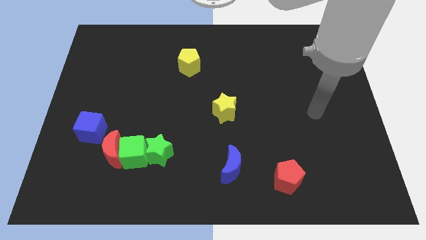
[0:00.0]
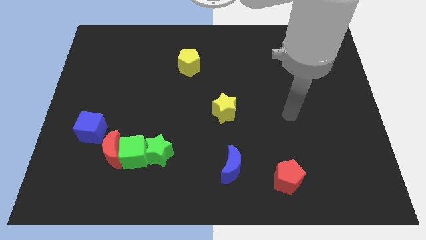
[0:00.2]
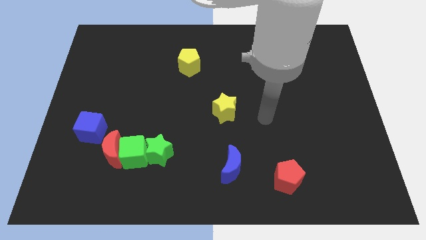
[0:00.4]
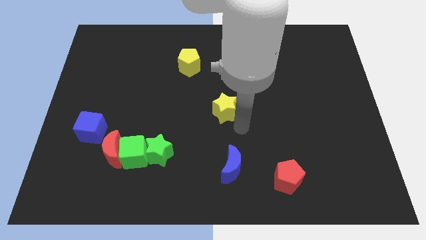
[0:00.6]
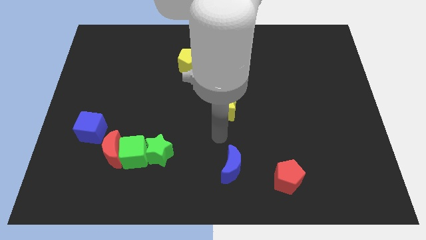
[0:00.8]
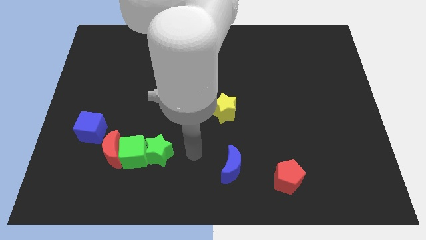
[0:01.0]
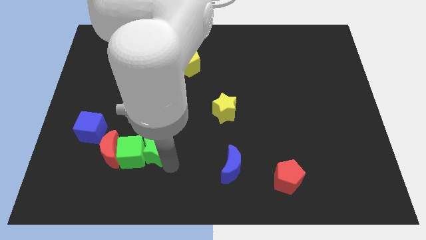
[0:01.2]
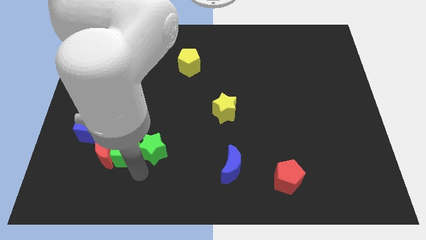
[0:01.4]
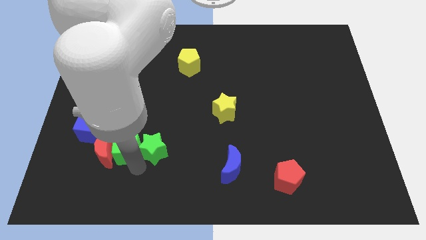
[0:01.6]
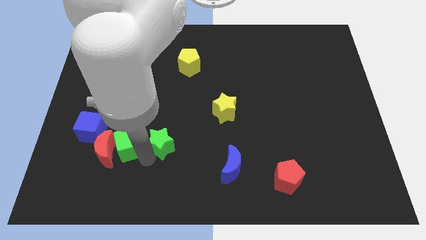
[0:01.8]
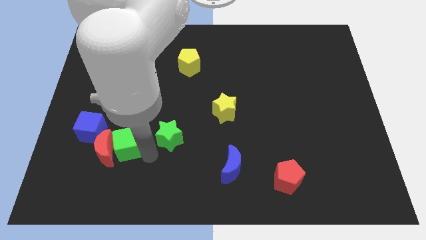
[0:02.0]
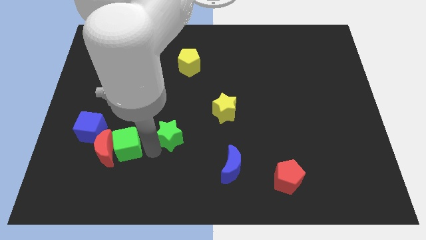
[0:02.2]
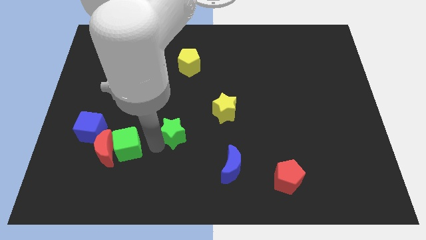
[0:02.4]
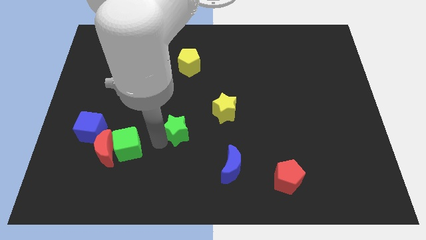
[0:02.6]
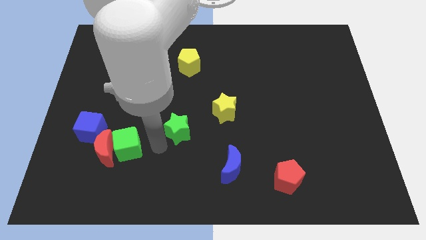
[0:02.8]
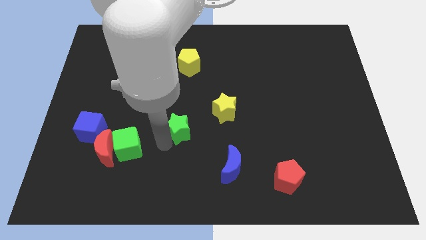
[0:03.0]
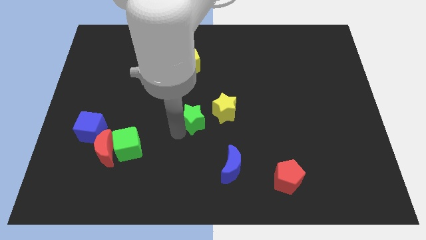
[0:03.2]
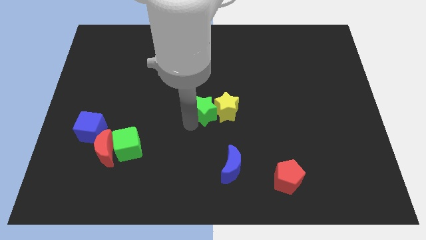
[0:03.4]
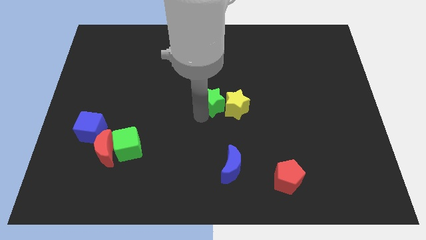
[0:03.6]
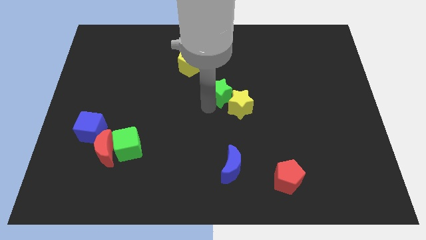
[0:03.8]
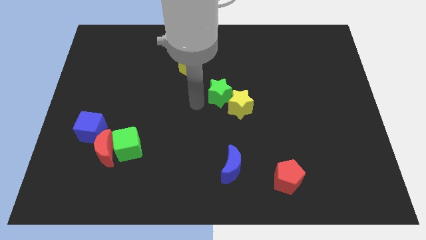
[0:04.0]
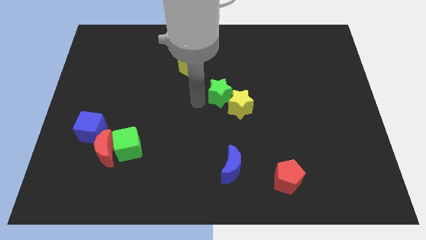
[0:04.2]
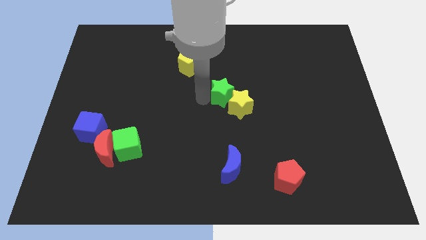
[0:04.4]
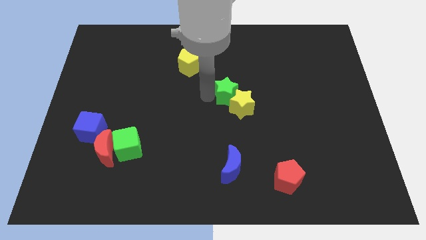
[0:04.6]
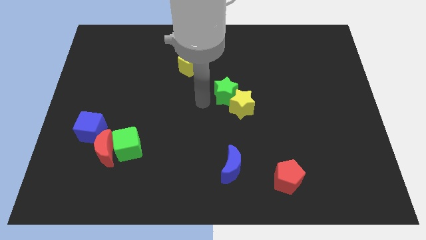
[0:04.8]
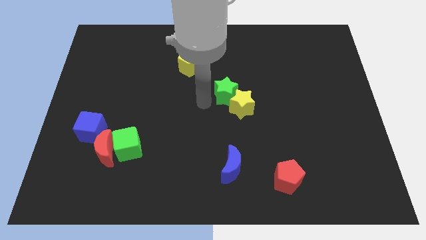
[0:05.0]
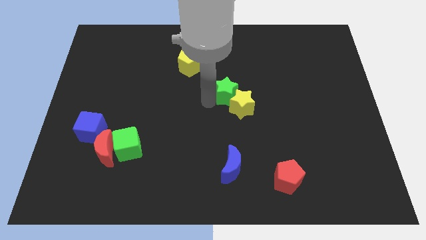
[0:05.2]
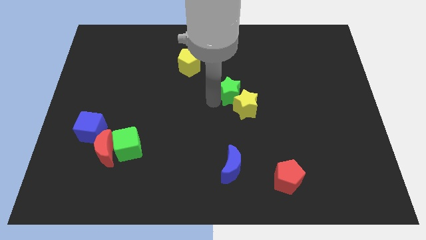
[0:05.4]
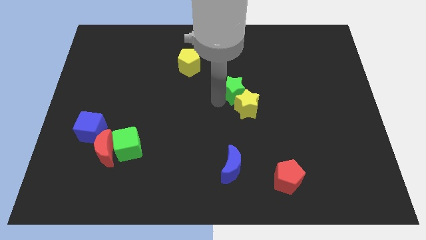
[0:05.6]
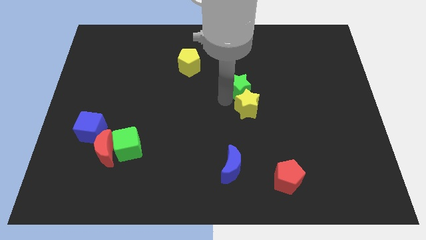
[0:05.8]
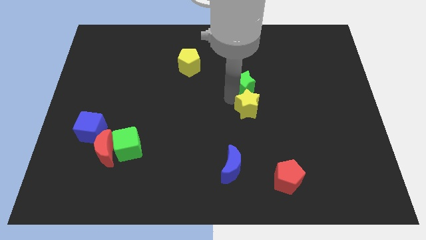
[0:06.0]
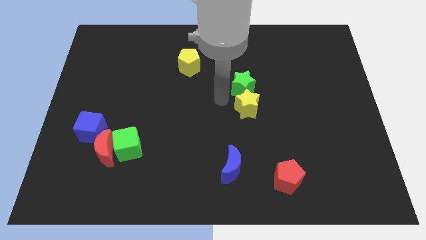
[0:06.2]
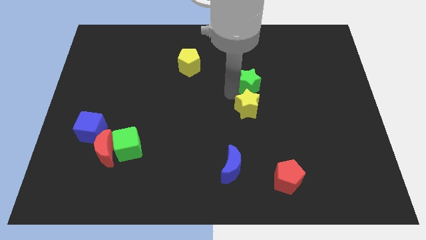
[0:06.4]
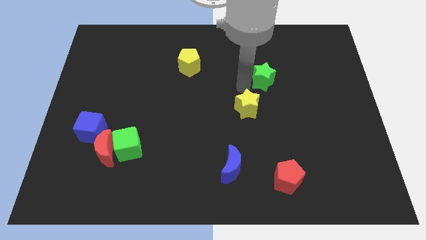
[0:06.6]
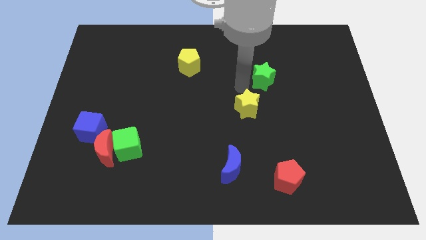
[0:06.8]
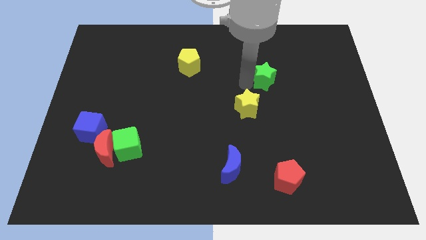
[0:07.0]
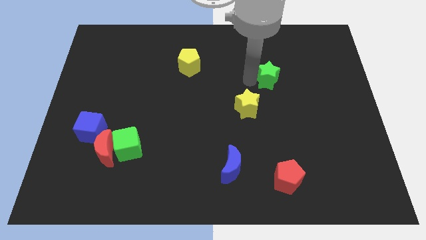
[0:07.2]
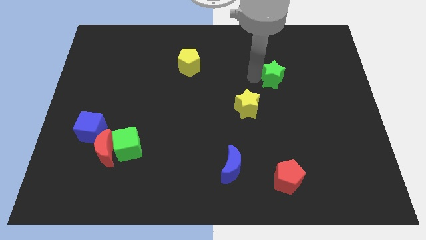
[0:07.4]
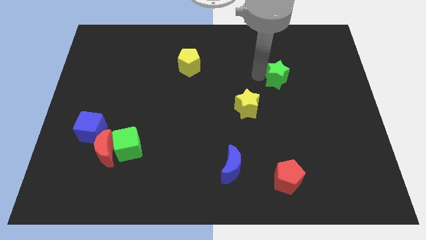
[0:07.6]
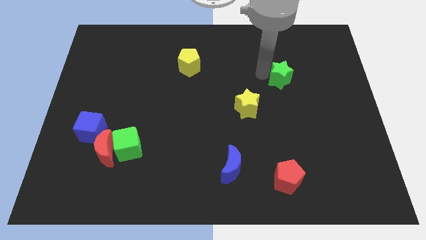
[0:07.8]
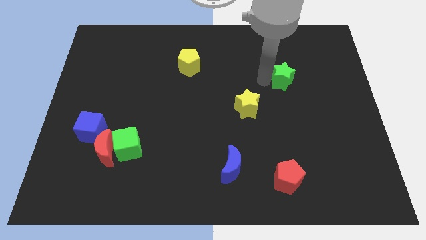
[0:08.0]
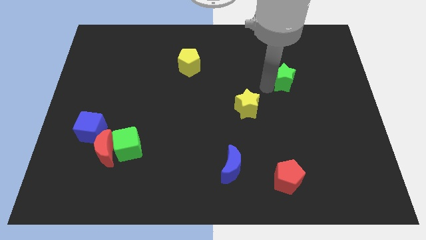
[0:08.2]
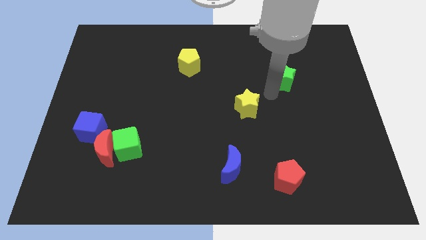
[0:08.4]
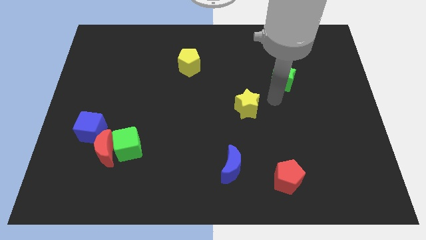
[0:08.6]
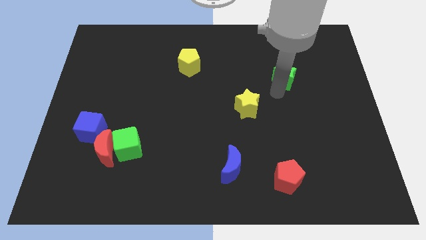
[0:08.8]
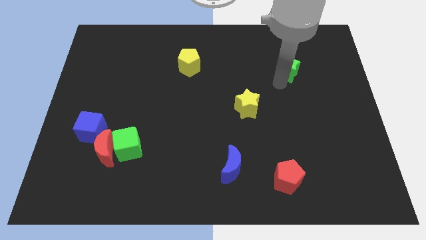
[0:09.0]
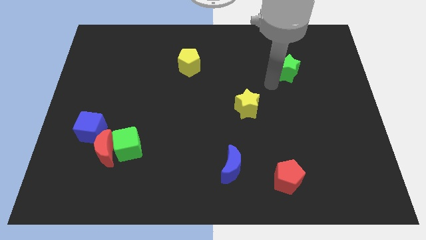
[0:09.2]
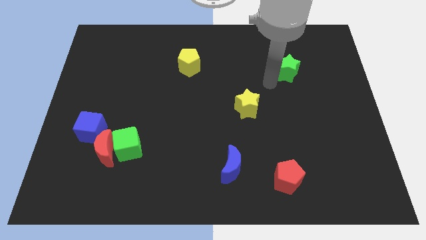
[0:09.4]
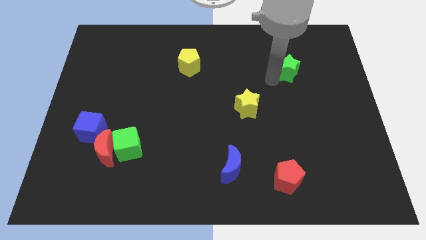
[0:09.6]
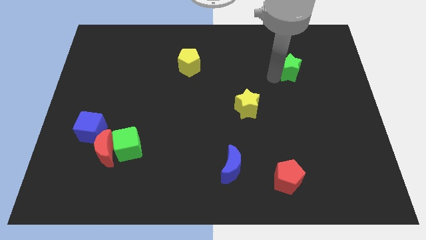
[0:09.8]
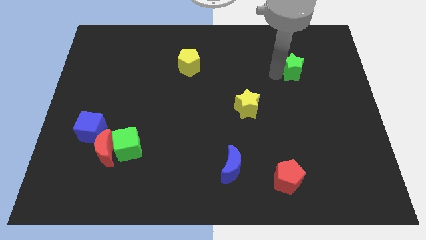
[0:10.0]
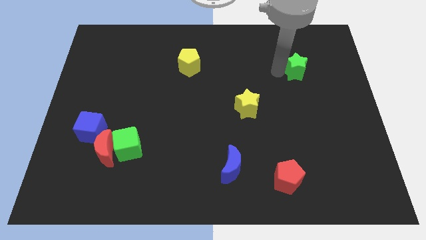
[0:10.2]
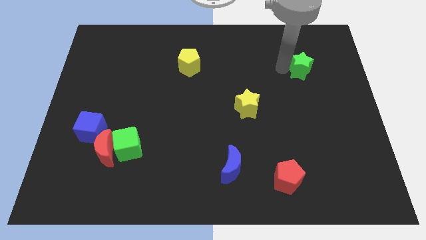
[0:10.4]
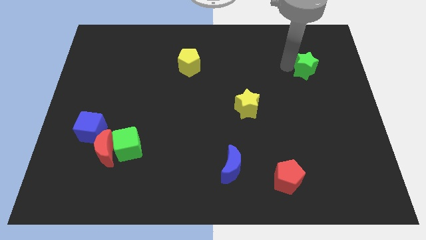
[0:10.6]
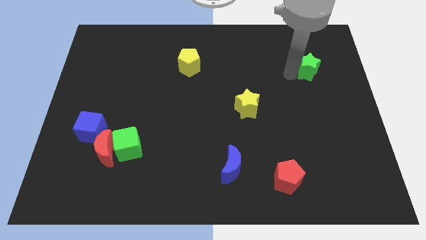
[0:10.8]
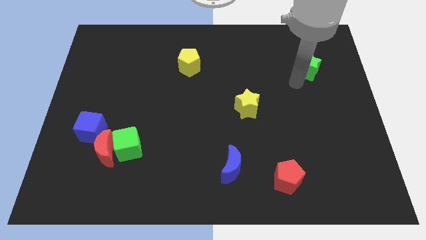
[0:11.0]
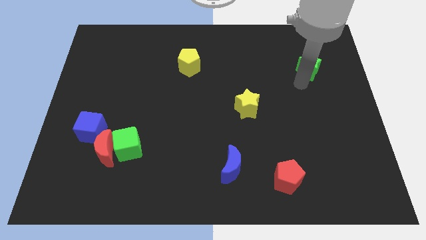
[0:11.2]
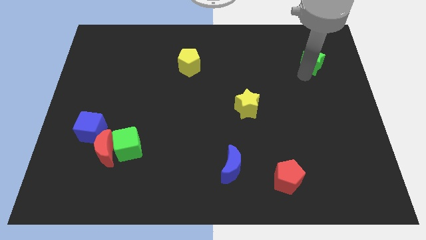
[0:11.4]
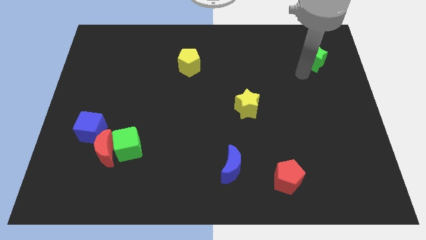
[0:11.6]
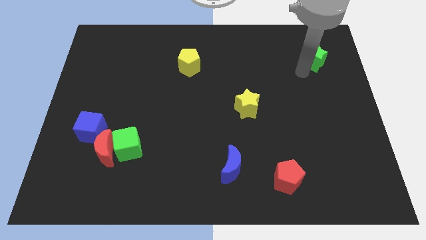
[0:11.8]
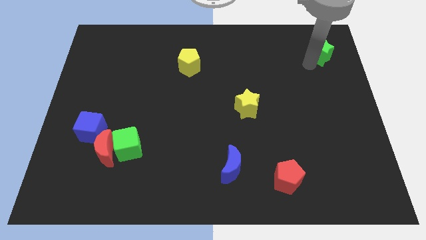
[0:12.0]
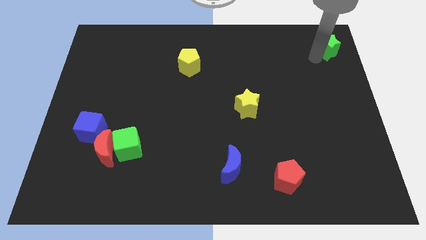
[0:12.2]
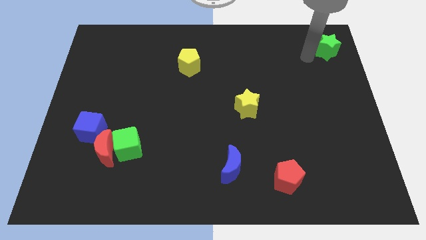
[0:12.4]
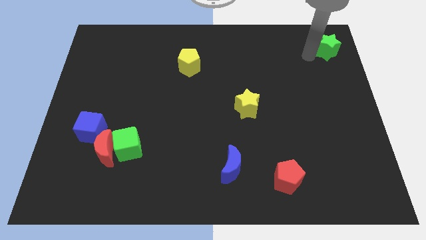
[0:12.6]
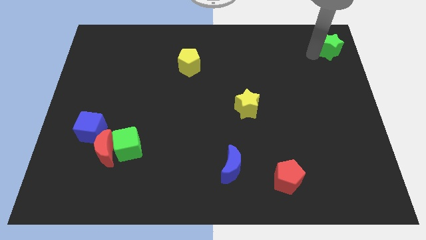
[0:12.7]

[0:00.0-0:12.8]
move the green star to the top right corner
